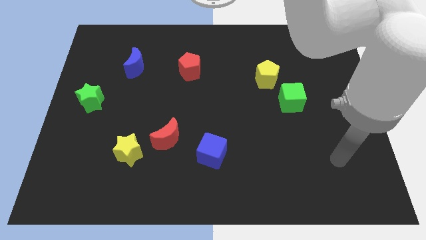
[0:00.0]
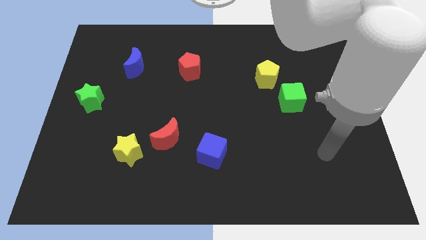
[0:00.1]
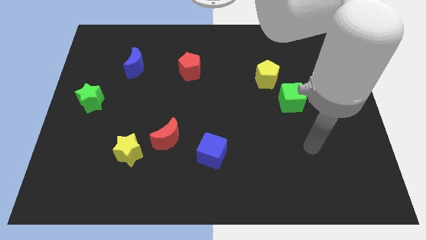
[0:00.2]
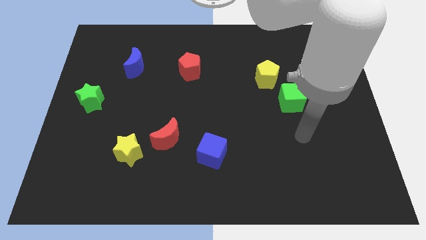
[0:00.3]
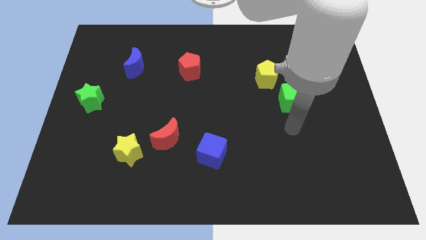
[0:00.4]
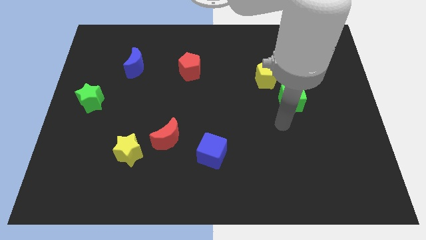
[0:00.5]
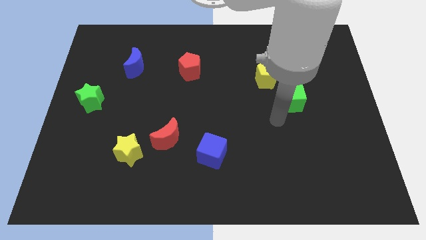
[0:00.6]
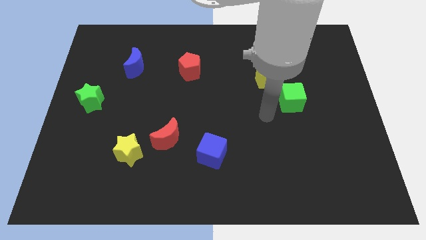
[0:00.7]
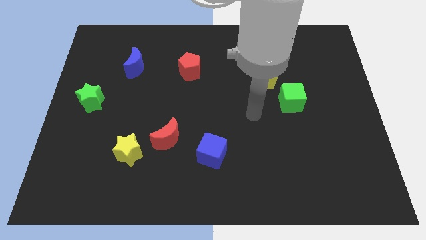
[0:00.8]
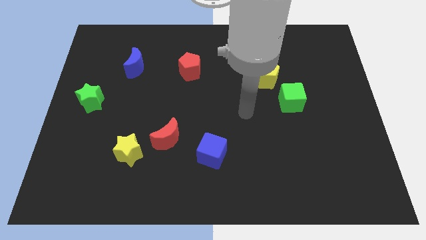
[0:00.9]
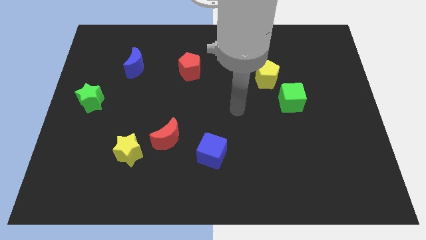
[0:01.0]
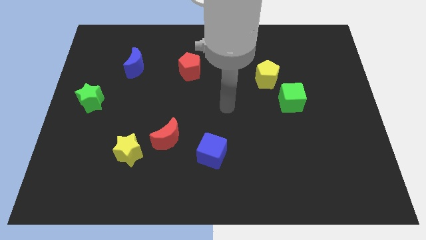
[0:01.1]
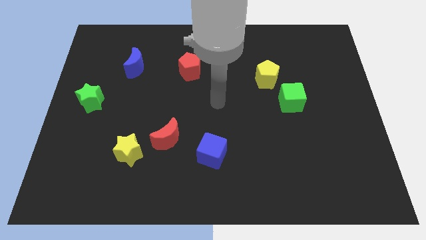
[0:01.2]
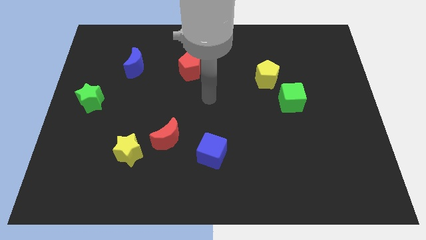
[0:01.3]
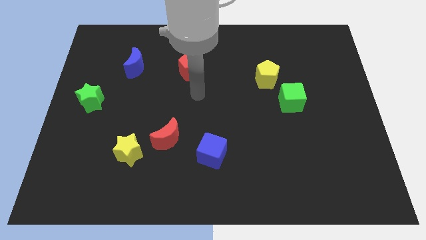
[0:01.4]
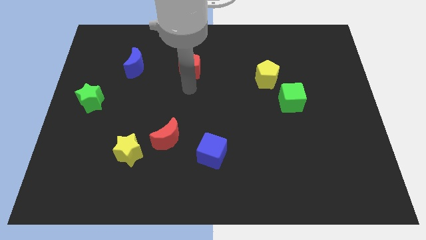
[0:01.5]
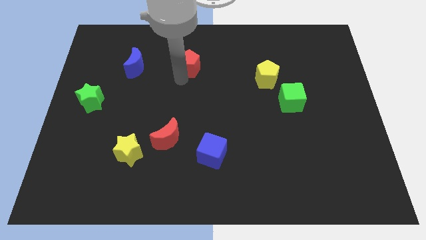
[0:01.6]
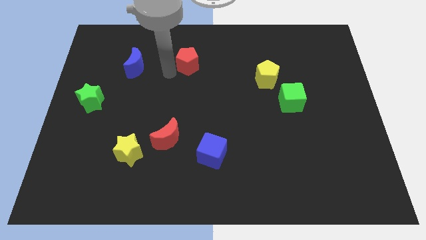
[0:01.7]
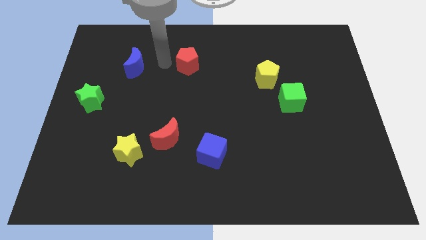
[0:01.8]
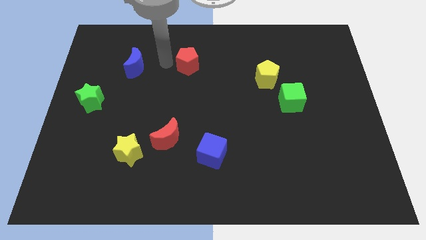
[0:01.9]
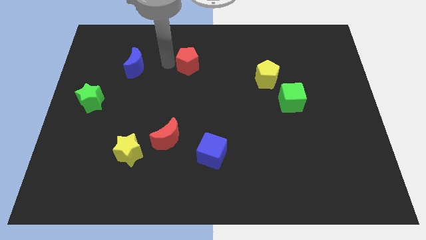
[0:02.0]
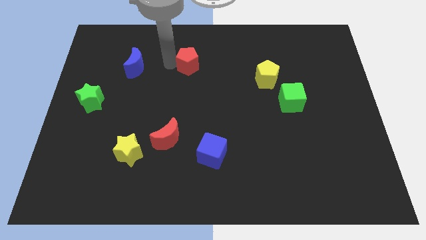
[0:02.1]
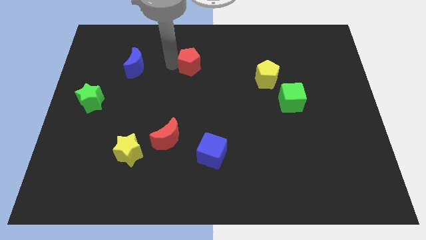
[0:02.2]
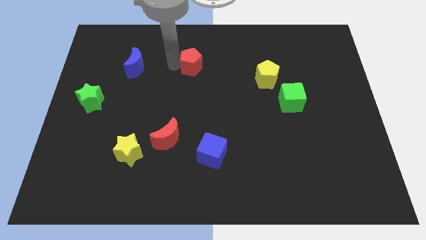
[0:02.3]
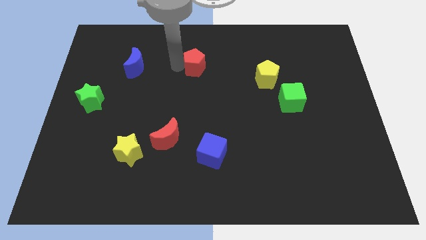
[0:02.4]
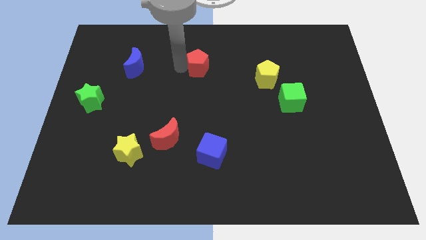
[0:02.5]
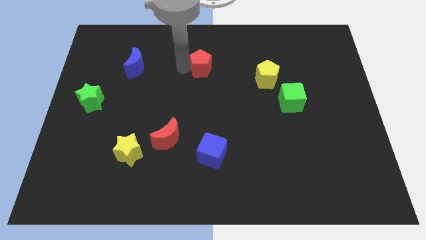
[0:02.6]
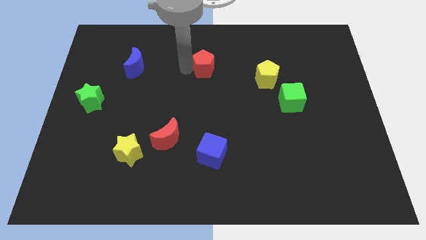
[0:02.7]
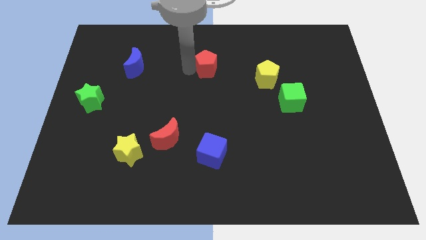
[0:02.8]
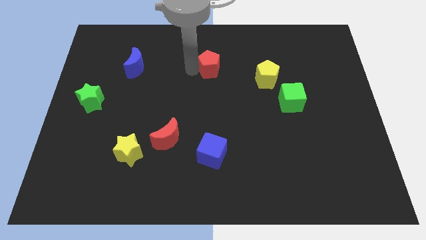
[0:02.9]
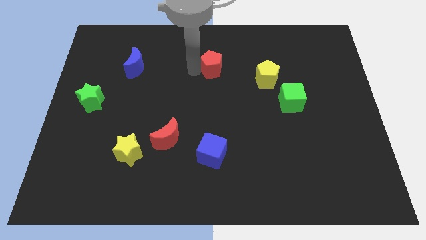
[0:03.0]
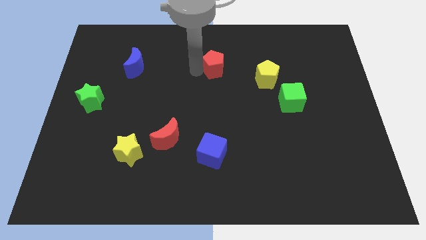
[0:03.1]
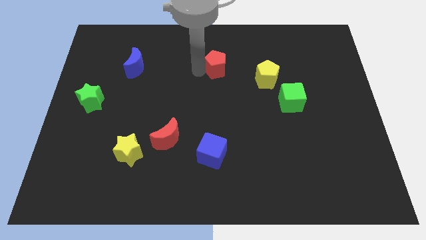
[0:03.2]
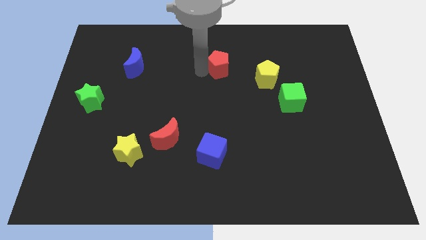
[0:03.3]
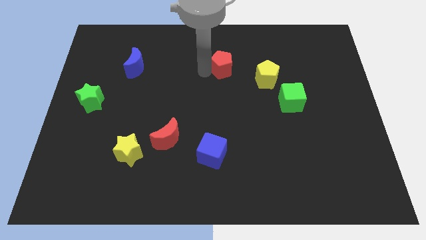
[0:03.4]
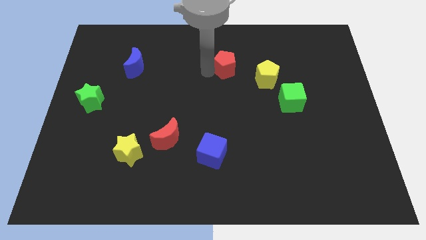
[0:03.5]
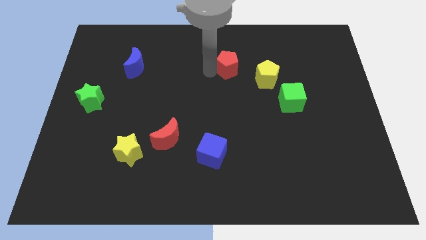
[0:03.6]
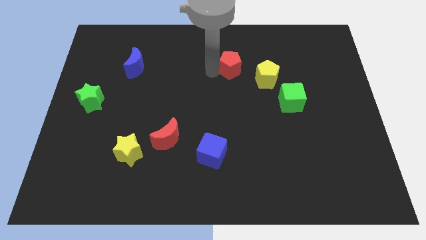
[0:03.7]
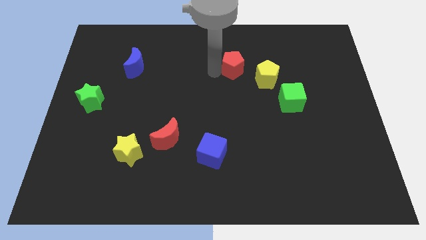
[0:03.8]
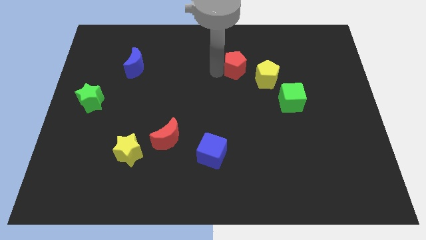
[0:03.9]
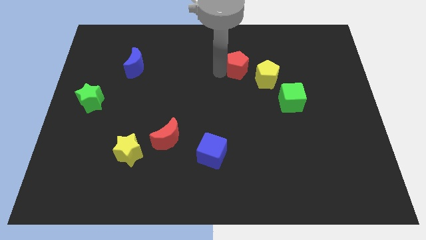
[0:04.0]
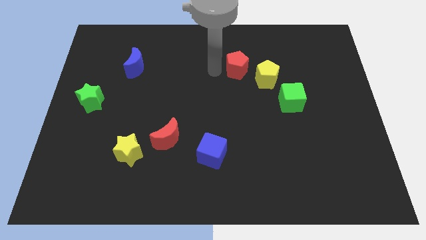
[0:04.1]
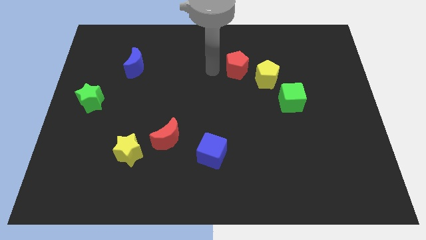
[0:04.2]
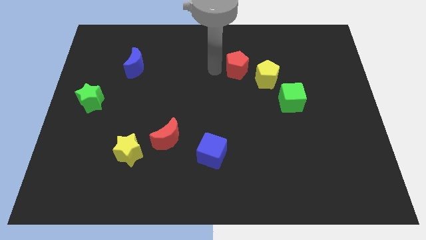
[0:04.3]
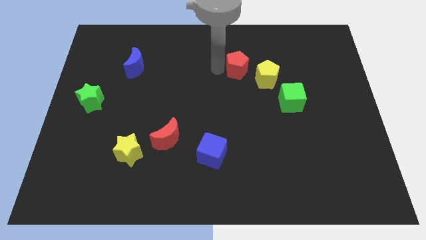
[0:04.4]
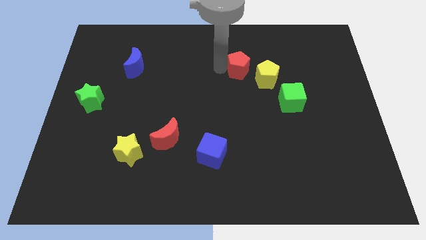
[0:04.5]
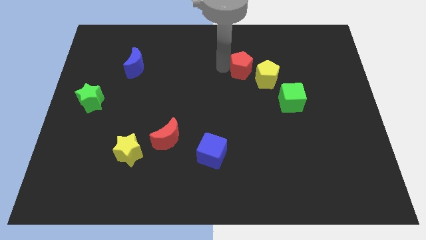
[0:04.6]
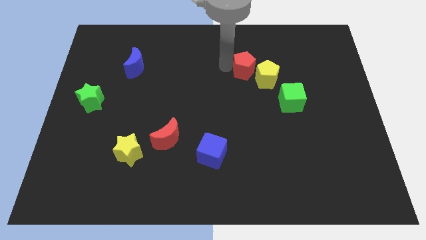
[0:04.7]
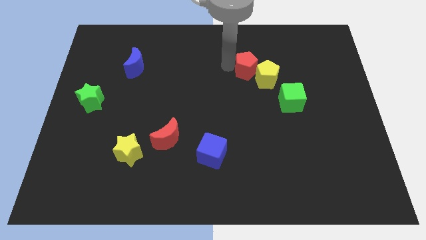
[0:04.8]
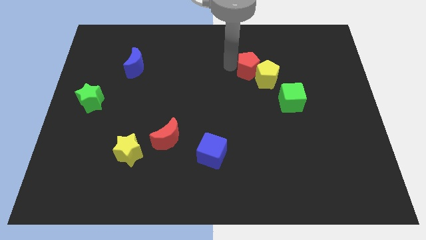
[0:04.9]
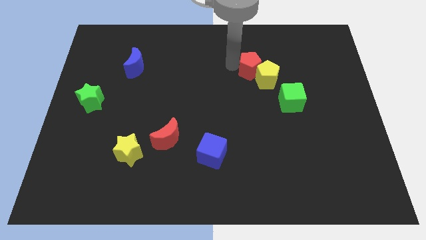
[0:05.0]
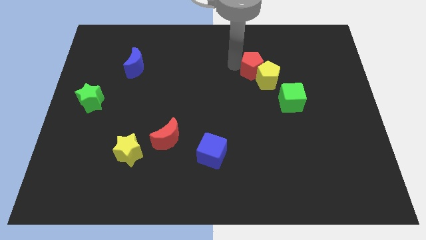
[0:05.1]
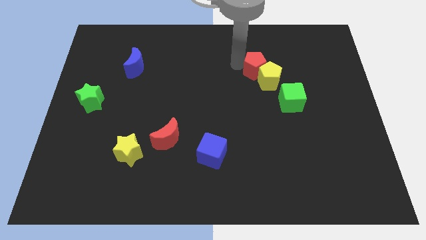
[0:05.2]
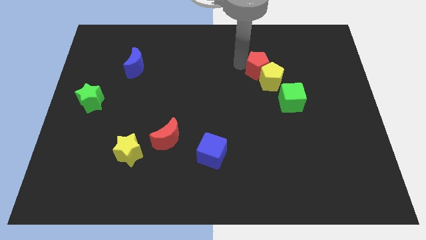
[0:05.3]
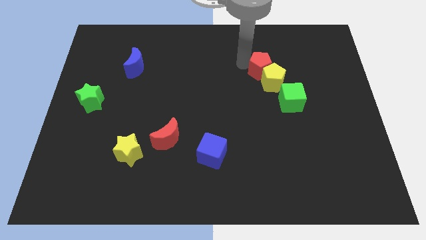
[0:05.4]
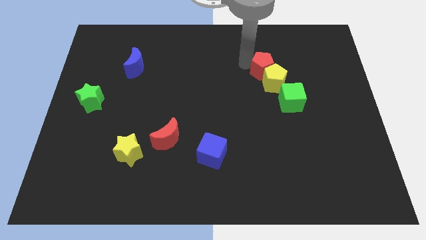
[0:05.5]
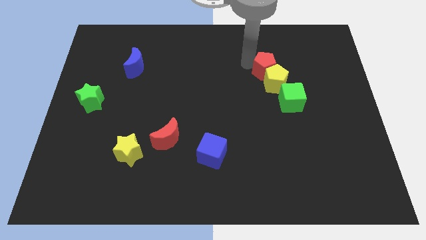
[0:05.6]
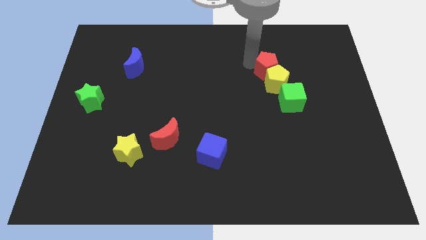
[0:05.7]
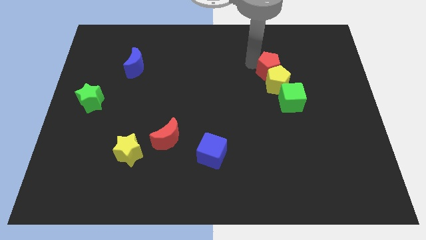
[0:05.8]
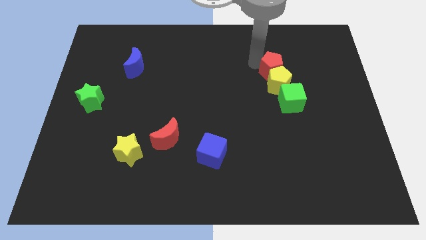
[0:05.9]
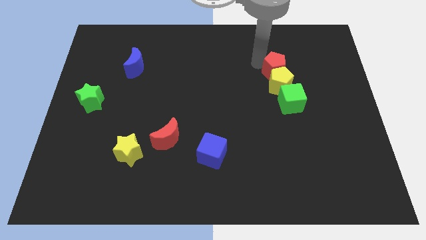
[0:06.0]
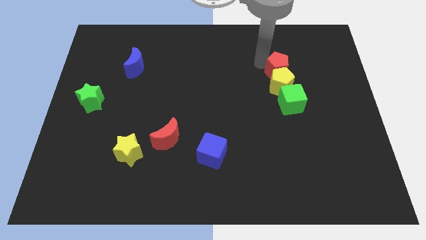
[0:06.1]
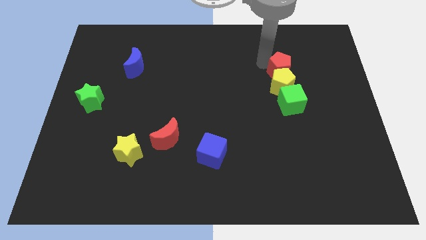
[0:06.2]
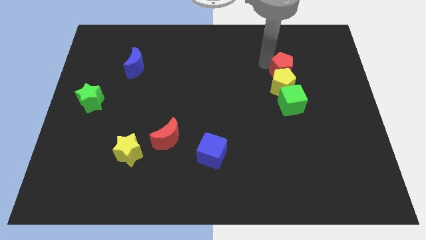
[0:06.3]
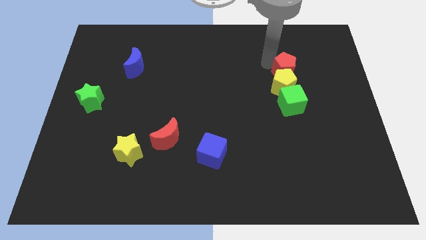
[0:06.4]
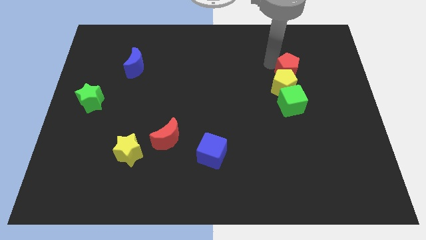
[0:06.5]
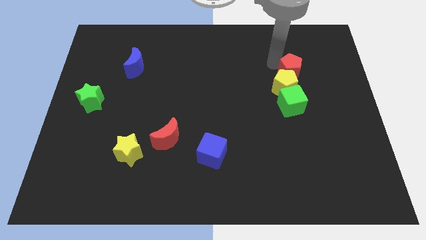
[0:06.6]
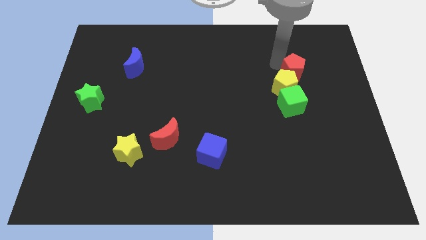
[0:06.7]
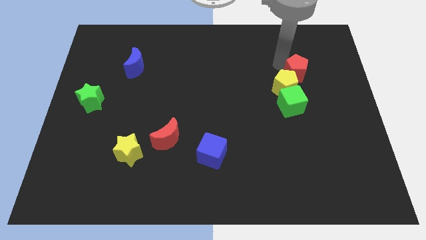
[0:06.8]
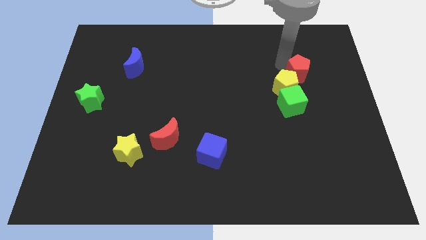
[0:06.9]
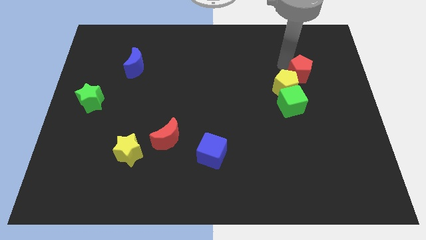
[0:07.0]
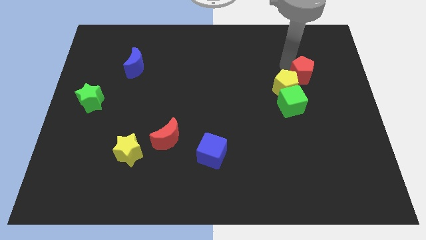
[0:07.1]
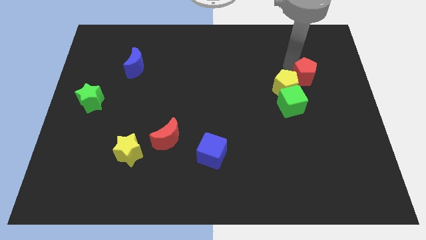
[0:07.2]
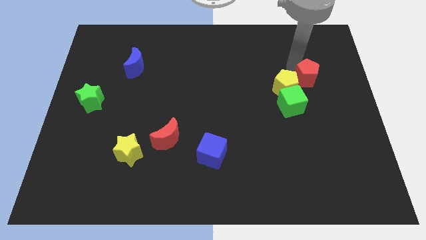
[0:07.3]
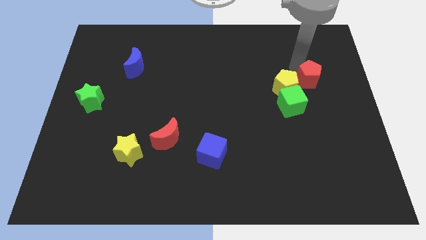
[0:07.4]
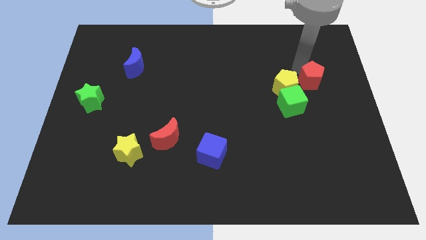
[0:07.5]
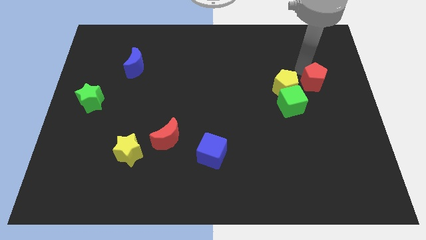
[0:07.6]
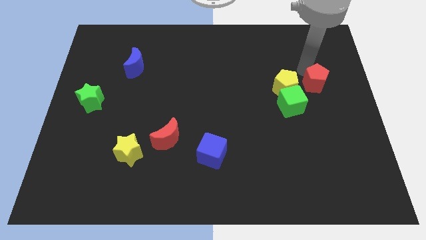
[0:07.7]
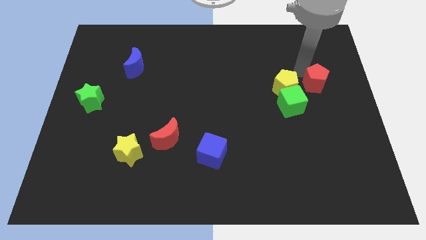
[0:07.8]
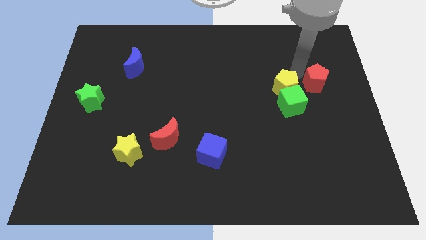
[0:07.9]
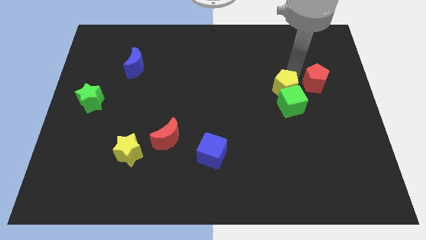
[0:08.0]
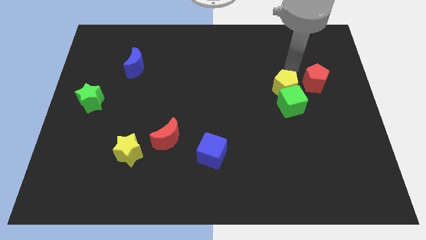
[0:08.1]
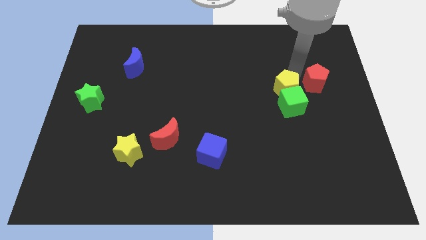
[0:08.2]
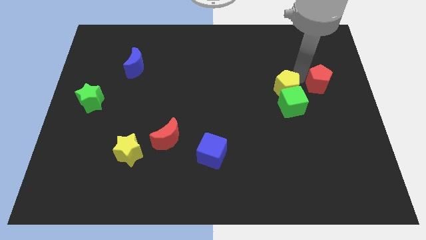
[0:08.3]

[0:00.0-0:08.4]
move the red pentagon to the right side of the board
